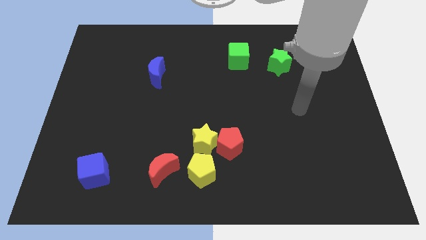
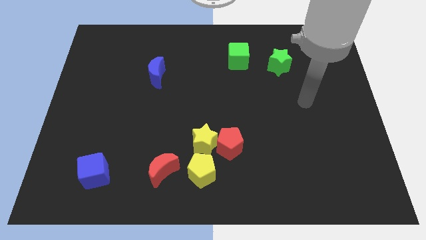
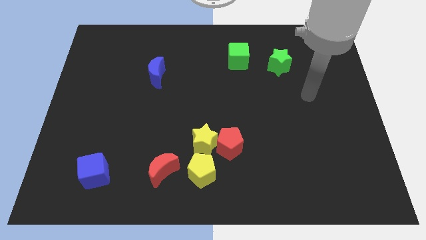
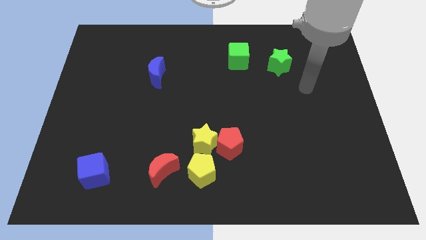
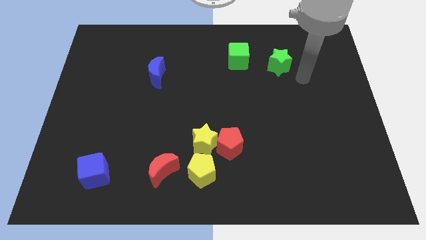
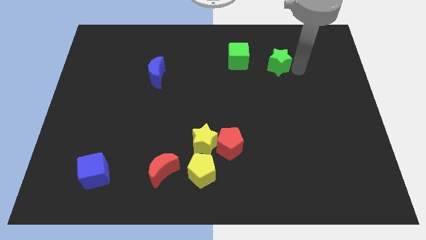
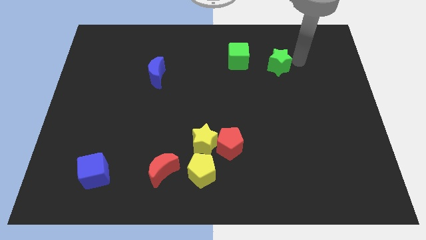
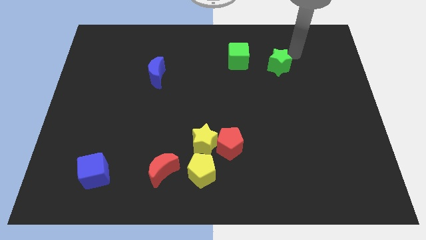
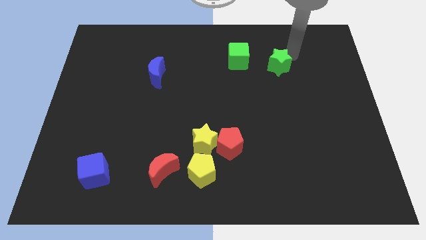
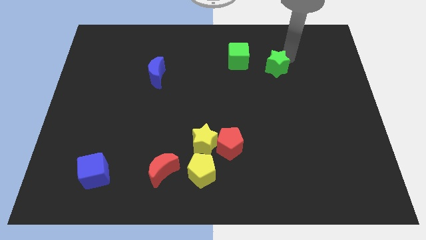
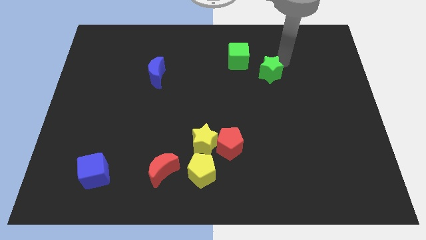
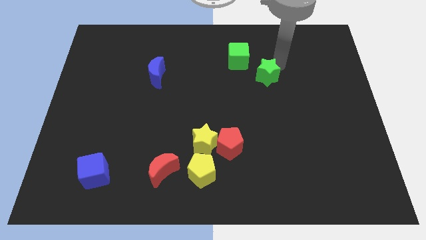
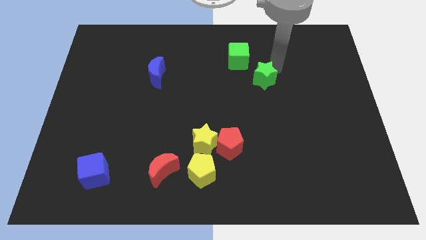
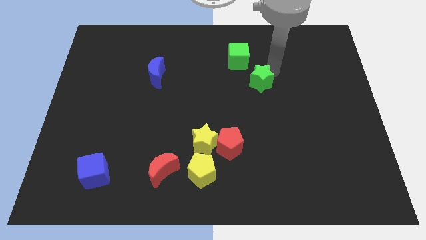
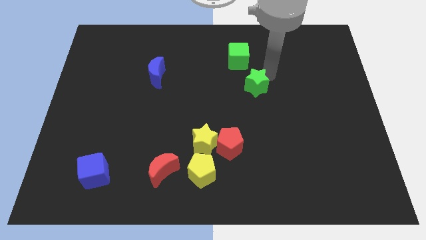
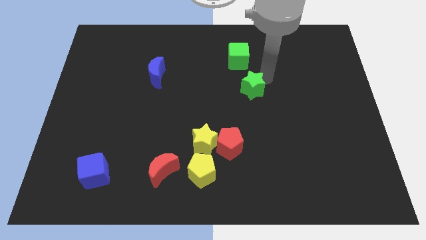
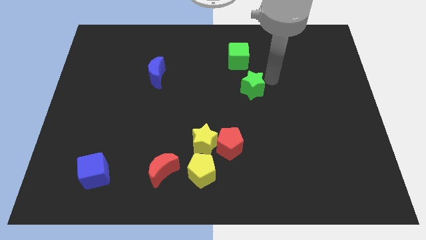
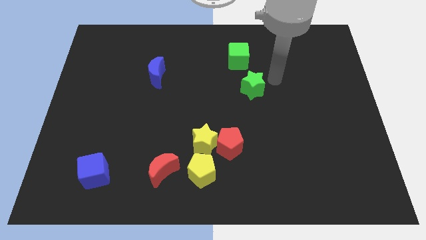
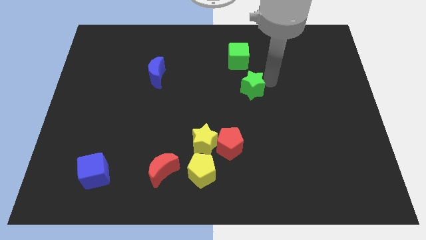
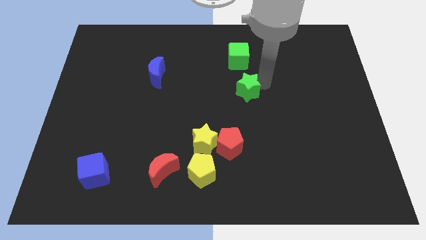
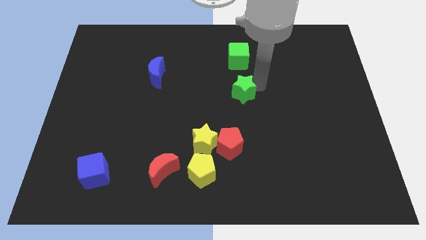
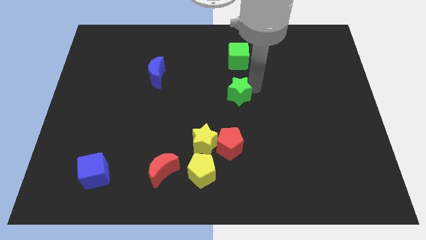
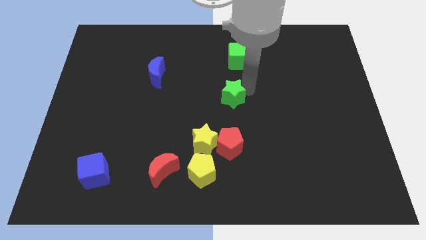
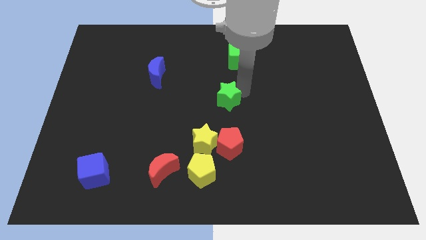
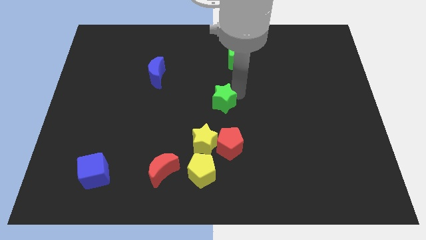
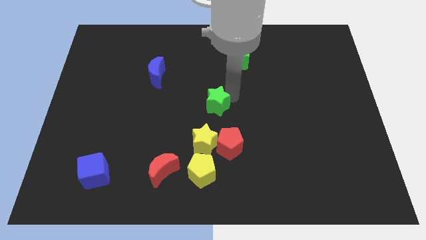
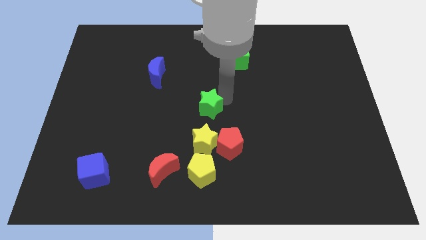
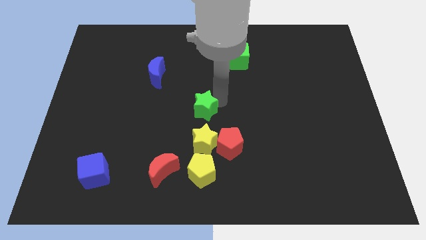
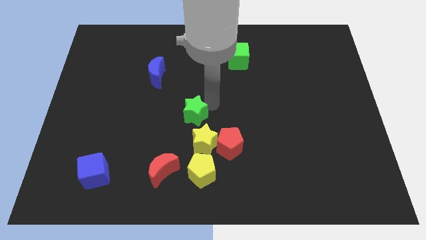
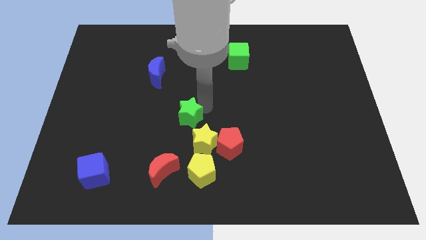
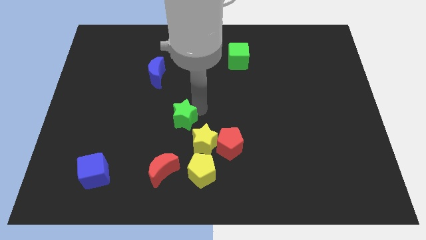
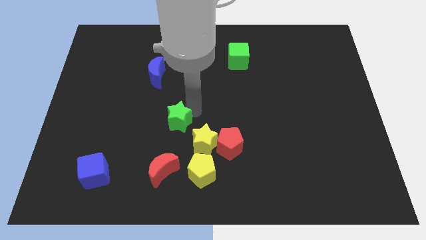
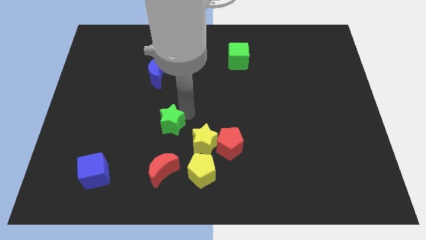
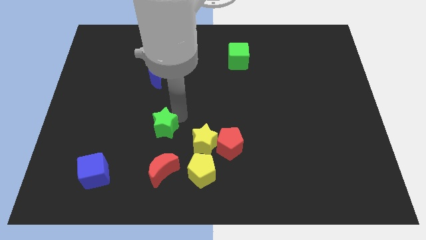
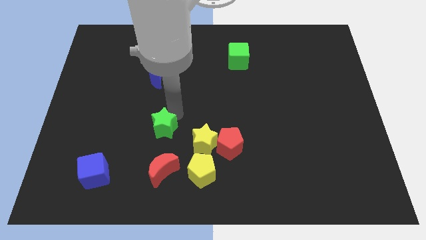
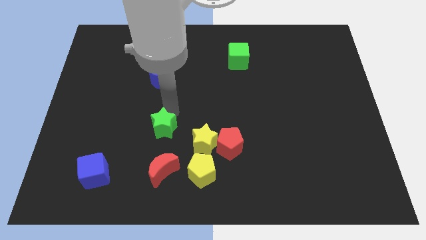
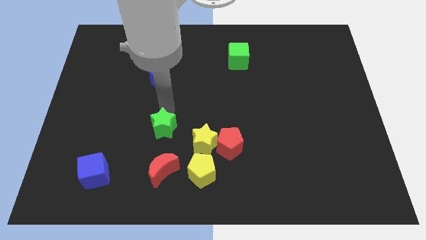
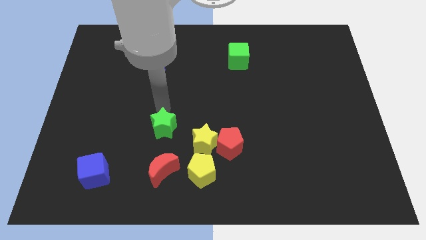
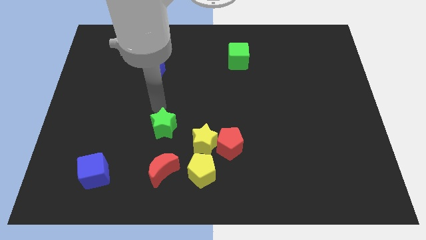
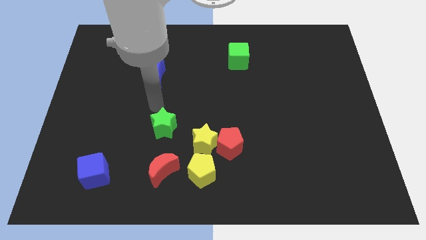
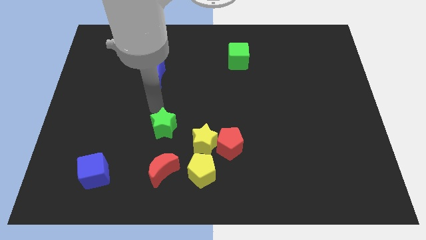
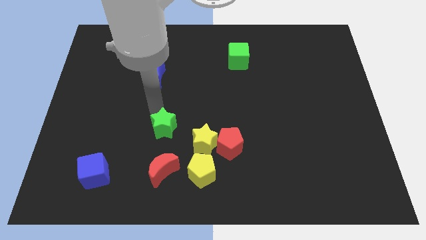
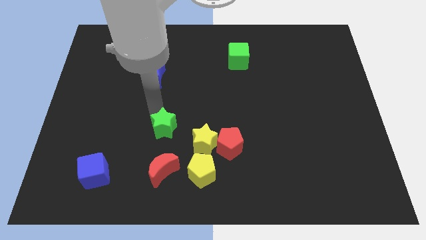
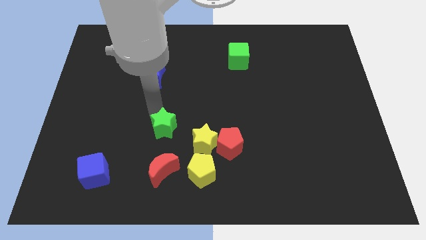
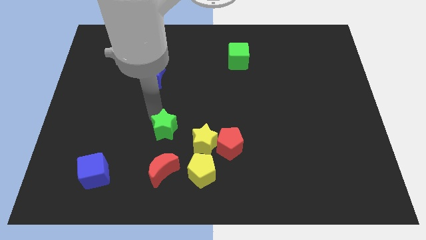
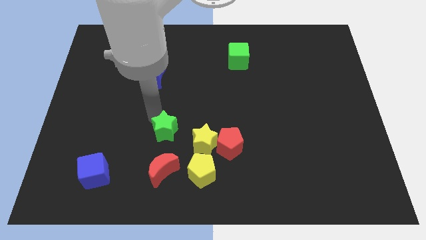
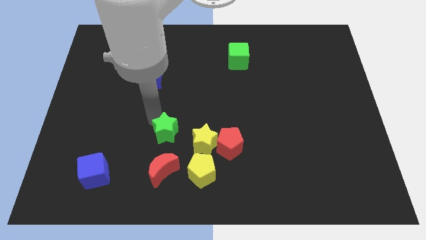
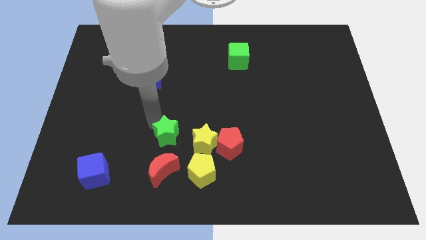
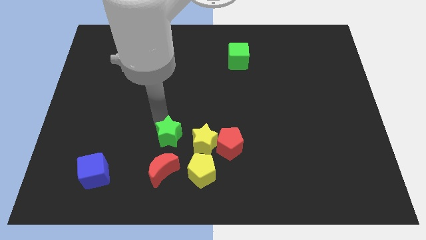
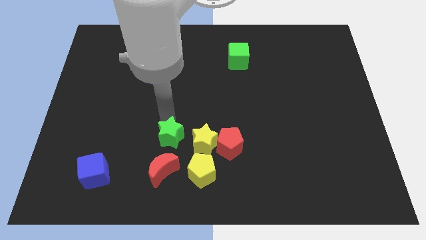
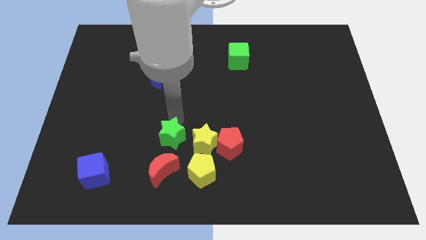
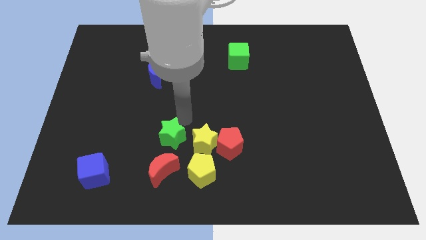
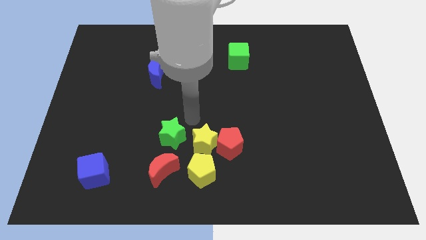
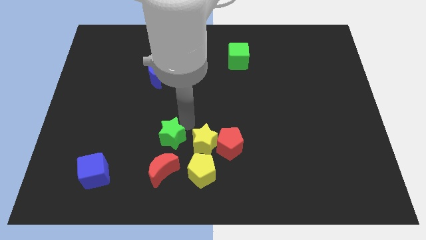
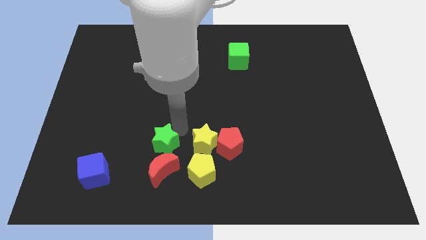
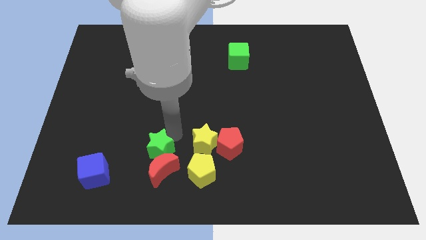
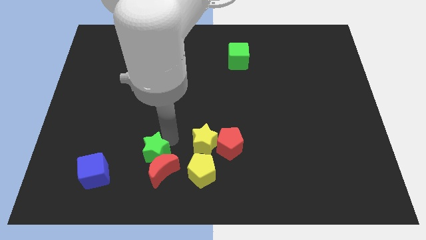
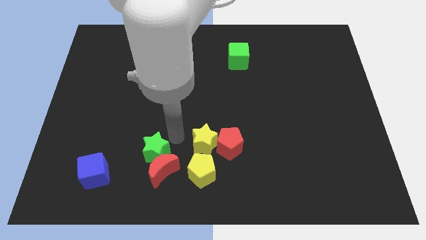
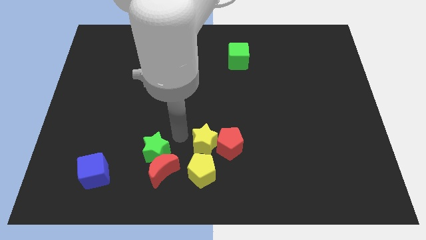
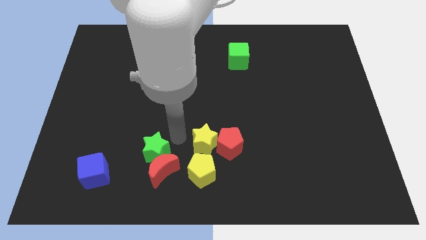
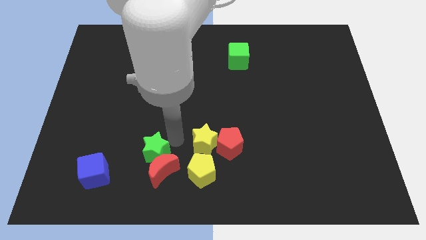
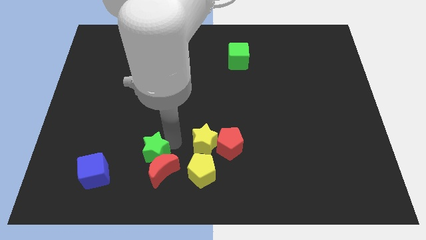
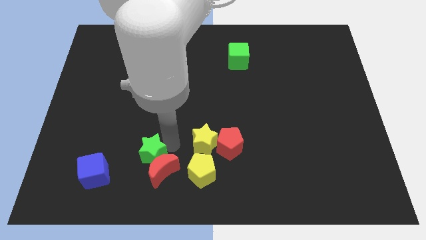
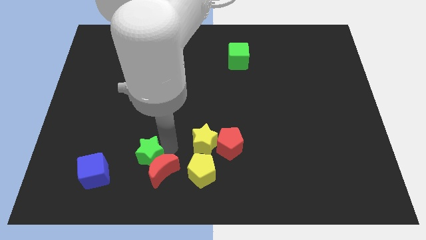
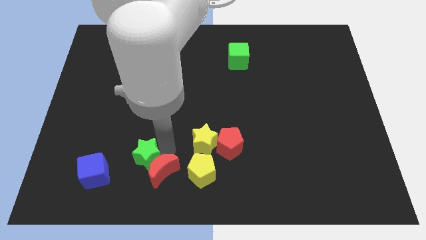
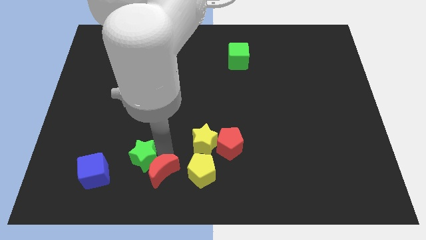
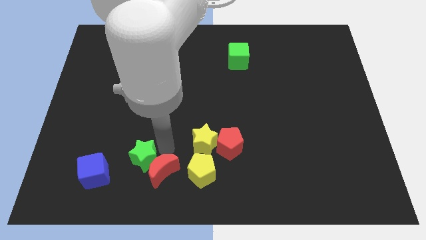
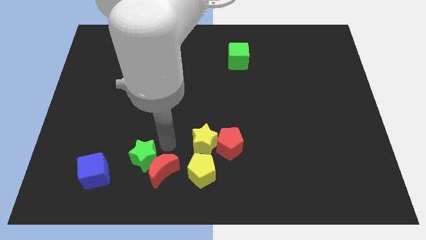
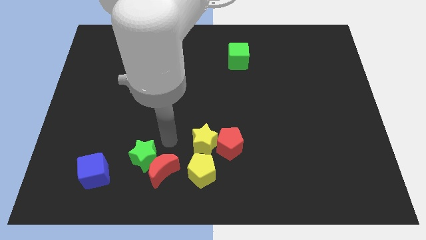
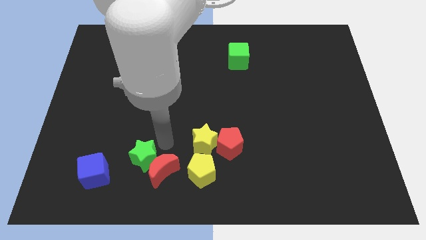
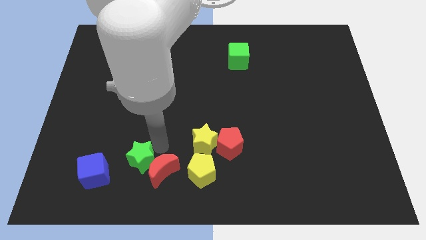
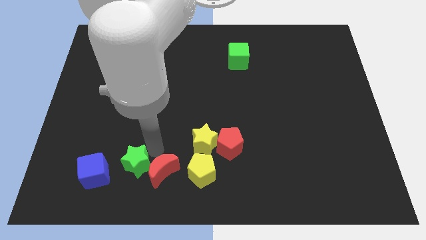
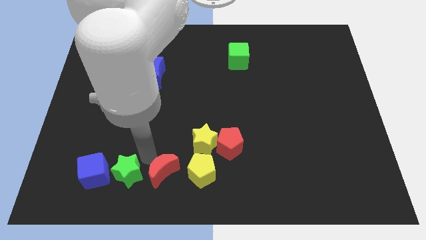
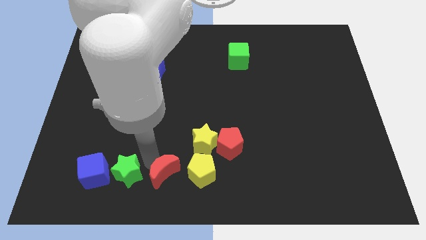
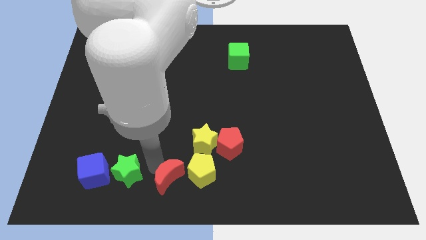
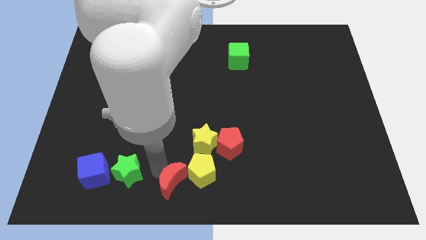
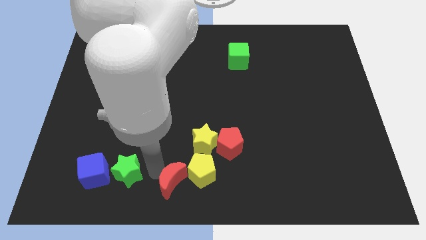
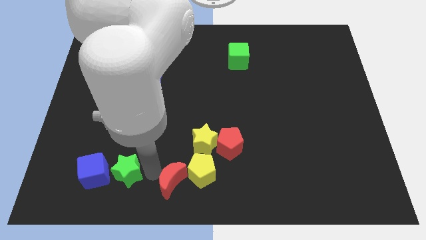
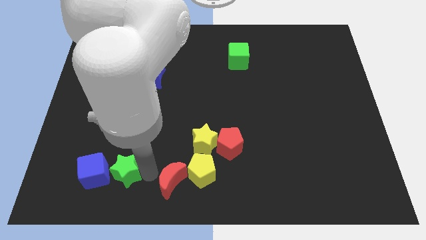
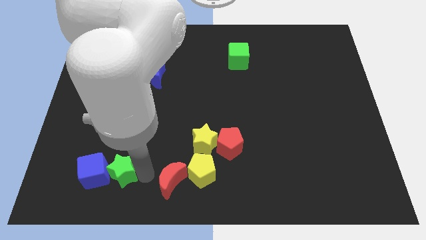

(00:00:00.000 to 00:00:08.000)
move the green star to the blue cube
